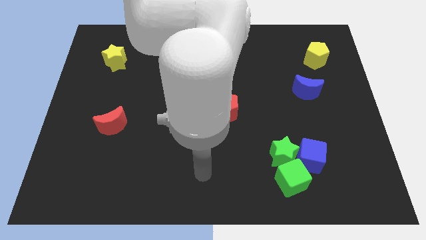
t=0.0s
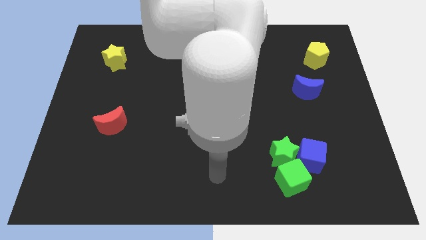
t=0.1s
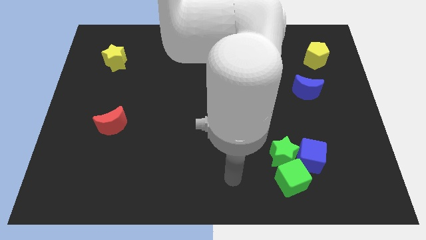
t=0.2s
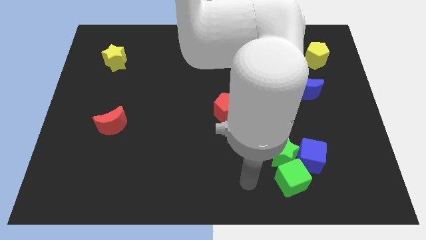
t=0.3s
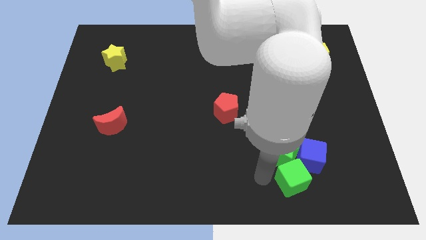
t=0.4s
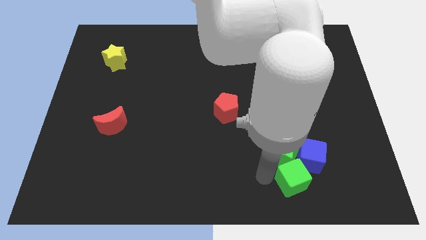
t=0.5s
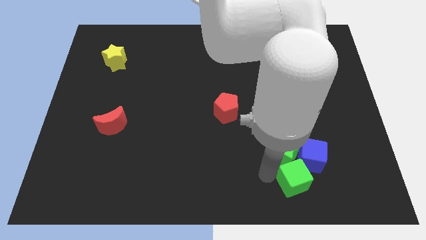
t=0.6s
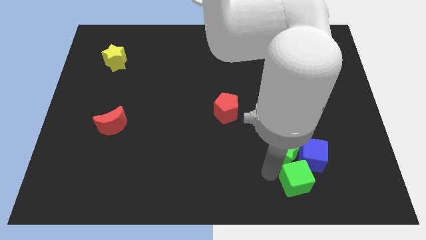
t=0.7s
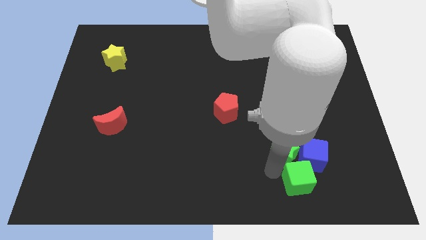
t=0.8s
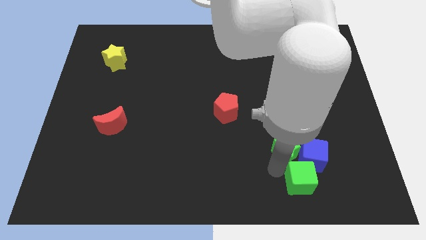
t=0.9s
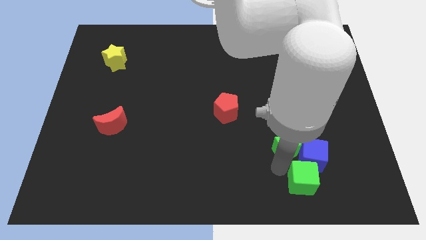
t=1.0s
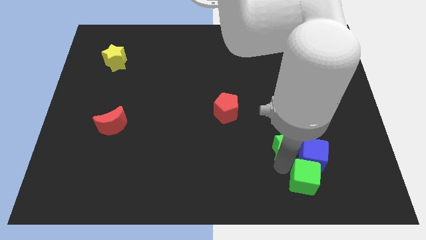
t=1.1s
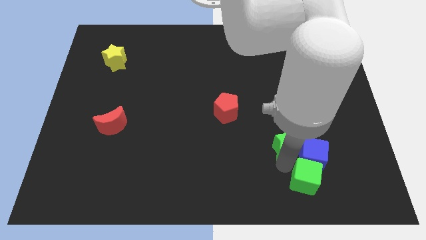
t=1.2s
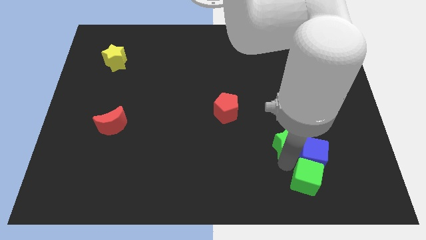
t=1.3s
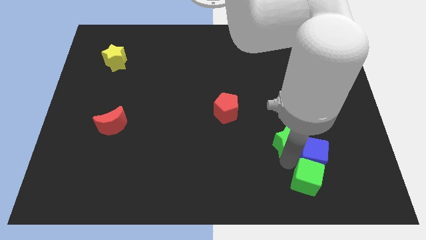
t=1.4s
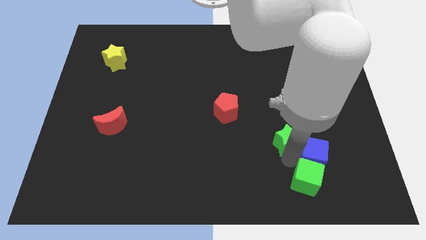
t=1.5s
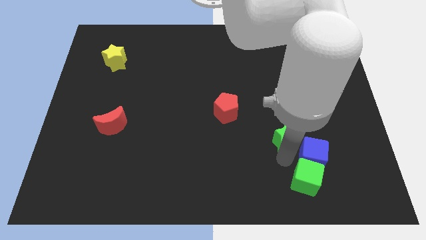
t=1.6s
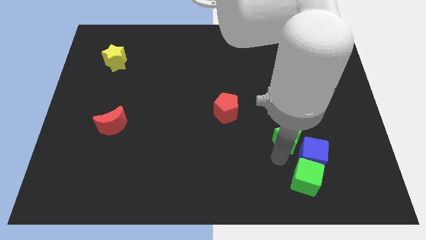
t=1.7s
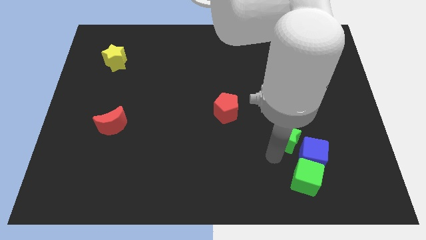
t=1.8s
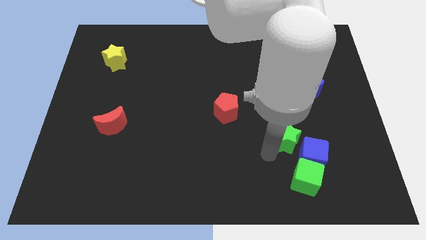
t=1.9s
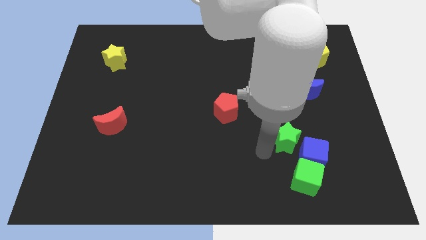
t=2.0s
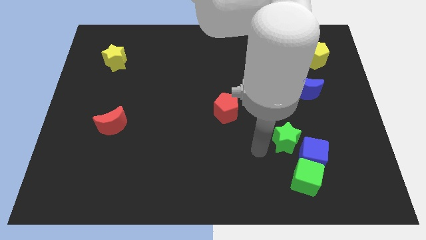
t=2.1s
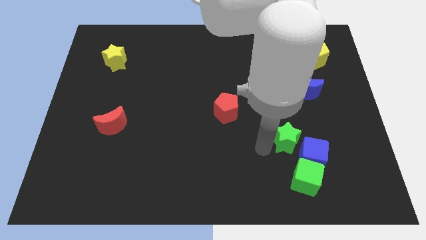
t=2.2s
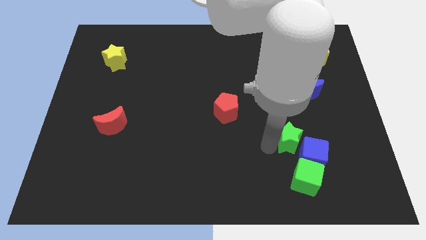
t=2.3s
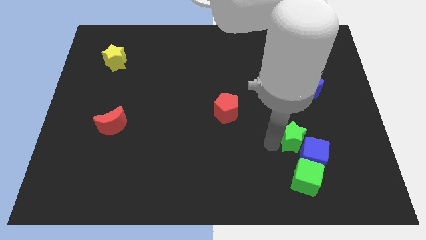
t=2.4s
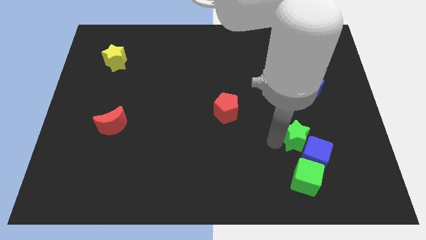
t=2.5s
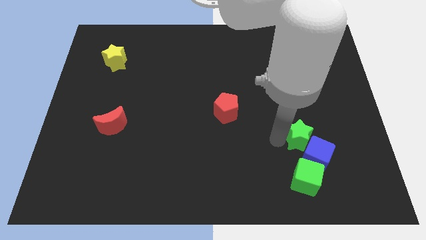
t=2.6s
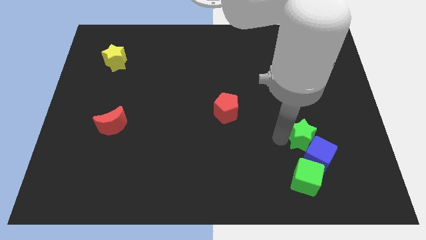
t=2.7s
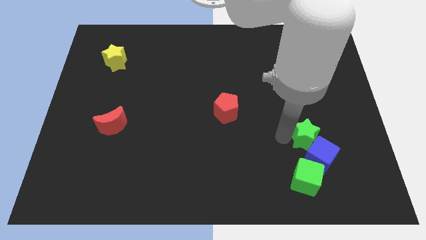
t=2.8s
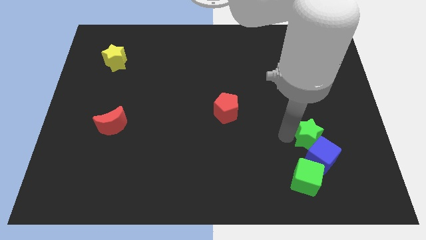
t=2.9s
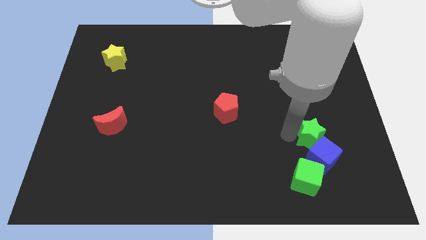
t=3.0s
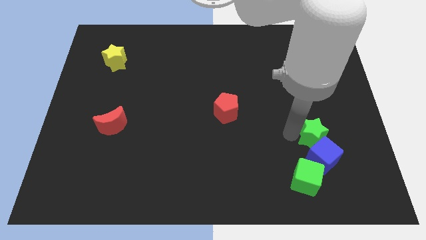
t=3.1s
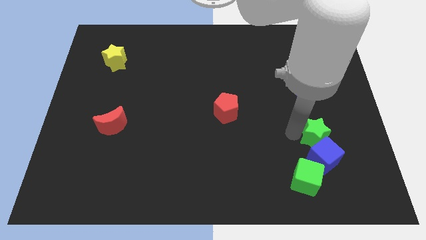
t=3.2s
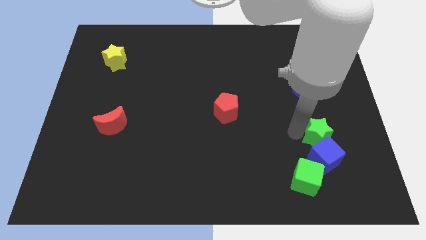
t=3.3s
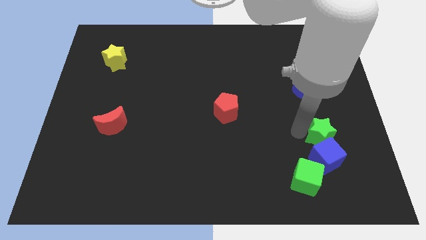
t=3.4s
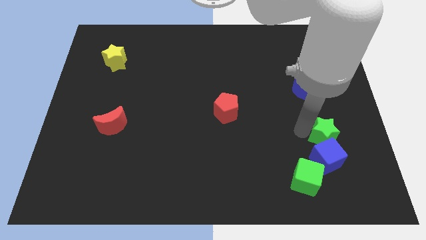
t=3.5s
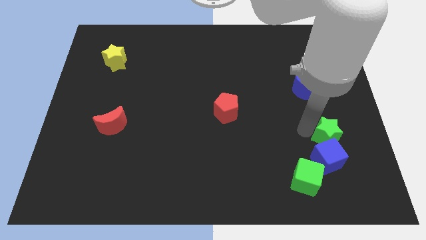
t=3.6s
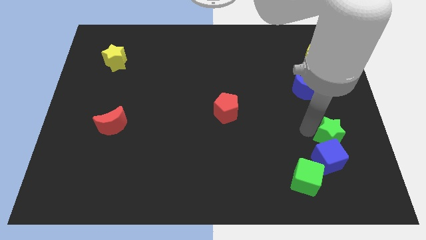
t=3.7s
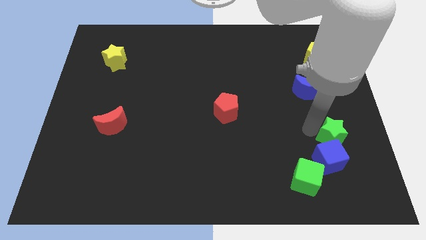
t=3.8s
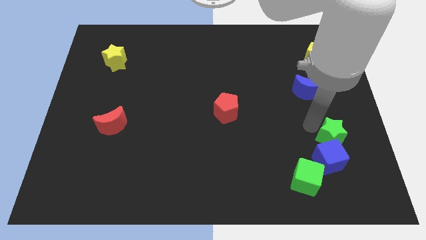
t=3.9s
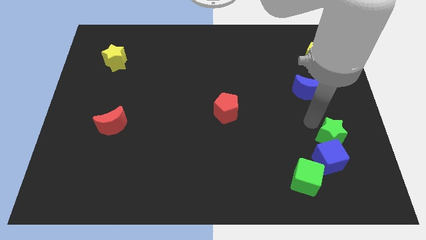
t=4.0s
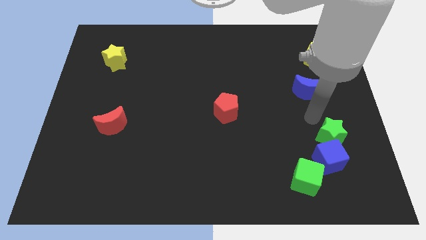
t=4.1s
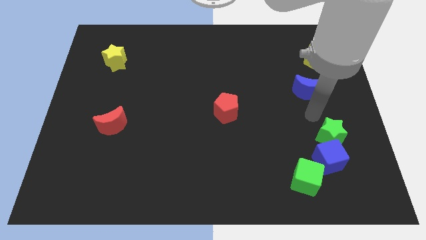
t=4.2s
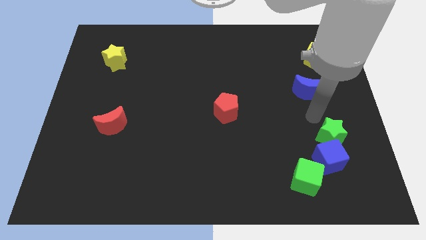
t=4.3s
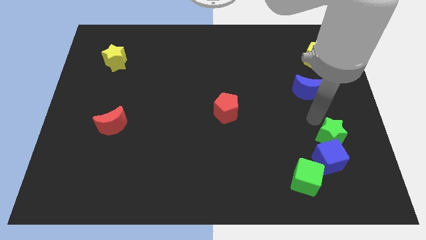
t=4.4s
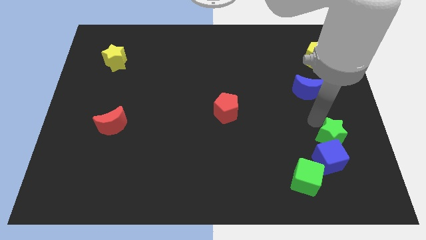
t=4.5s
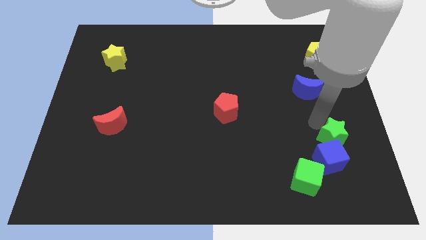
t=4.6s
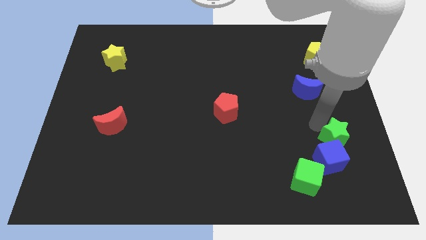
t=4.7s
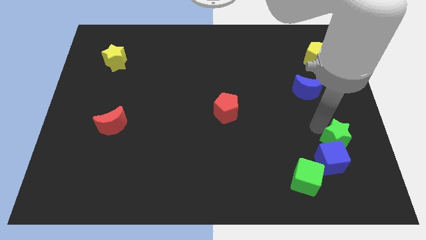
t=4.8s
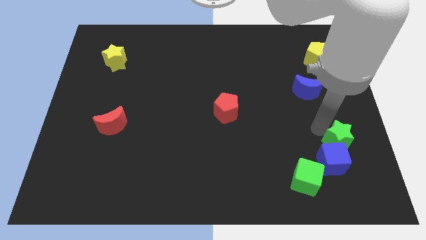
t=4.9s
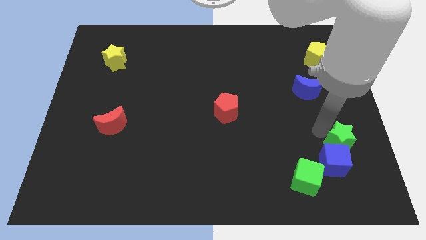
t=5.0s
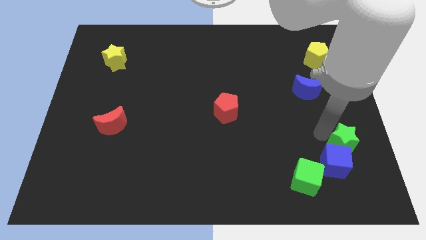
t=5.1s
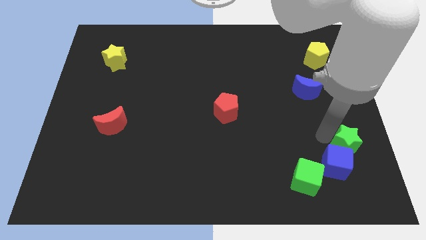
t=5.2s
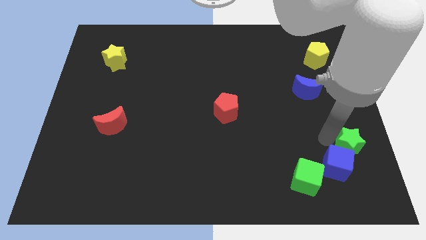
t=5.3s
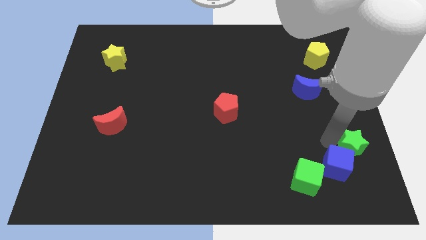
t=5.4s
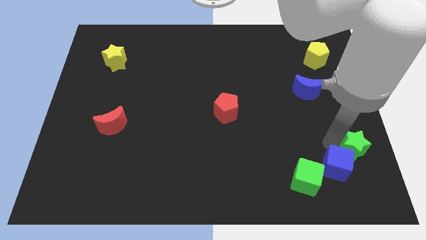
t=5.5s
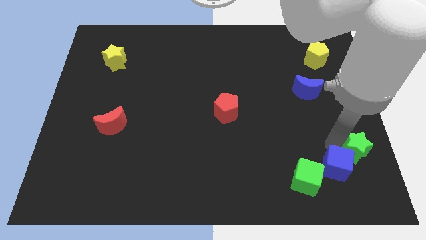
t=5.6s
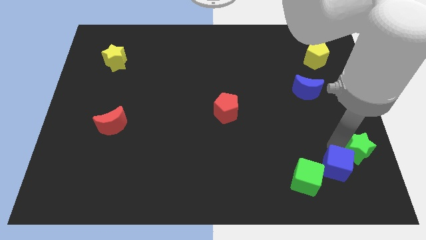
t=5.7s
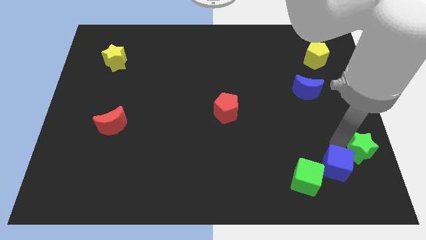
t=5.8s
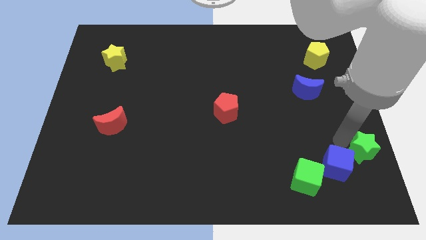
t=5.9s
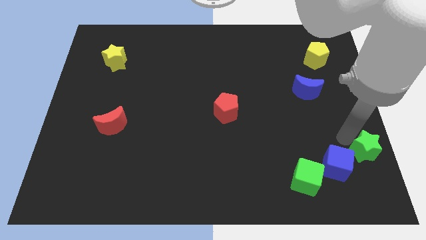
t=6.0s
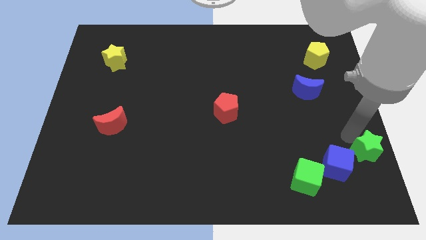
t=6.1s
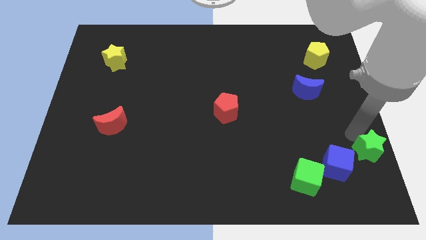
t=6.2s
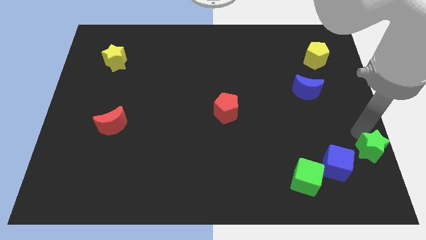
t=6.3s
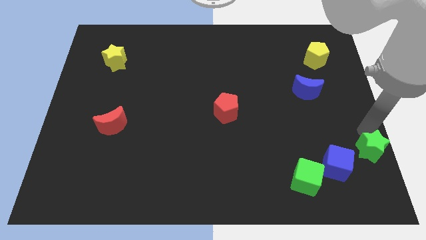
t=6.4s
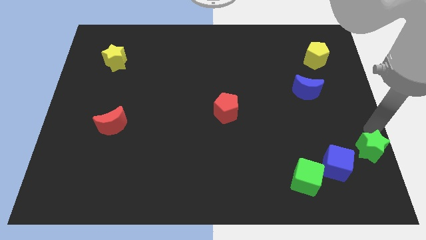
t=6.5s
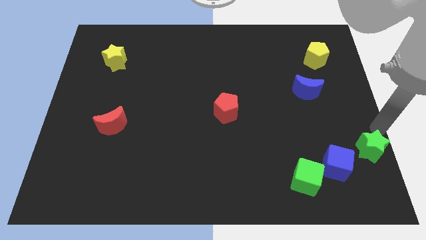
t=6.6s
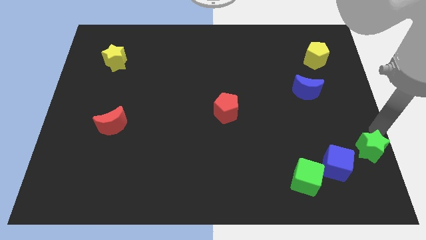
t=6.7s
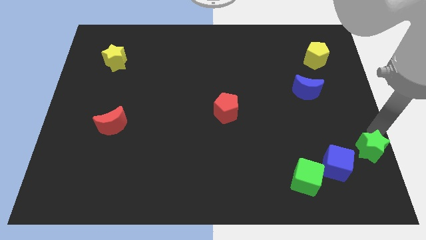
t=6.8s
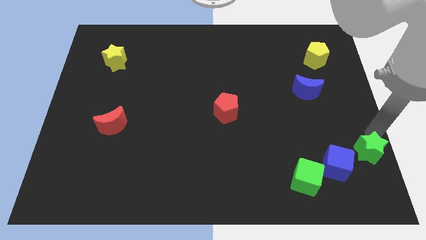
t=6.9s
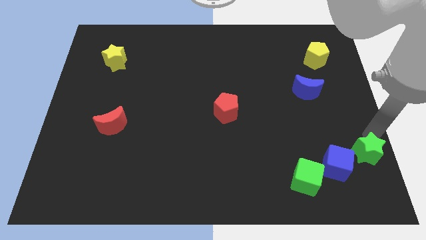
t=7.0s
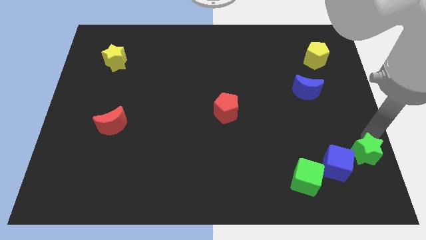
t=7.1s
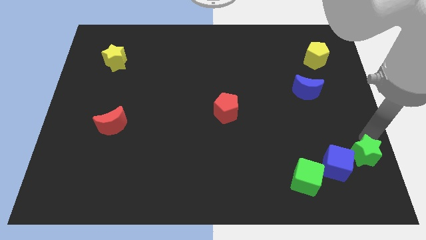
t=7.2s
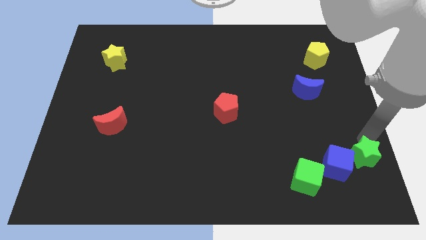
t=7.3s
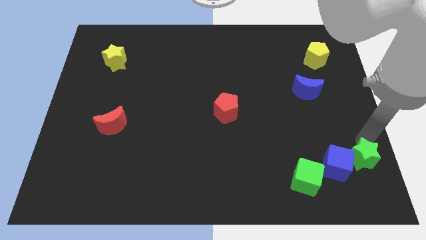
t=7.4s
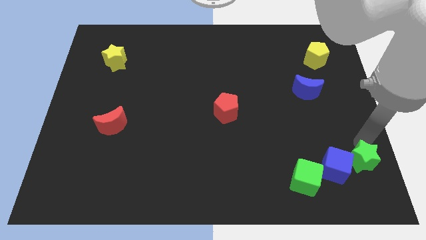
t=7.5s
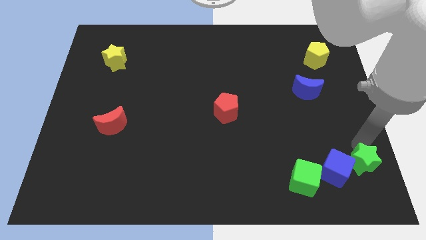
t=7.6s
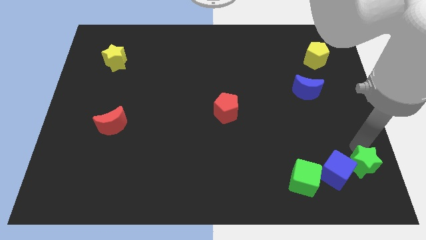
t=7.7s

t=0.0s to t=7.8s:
slide the green star to the bottom right
